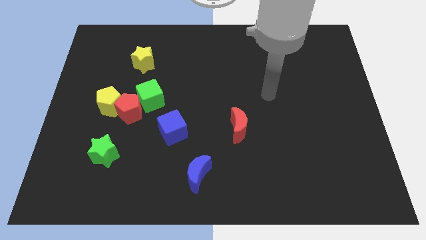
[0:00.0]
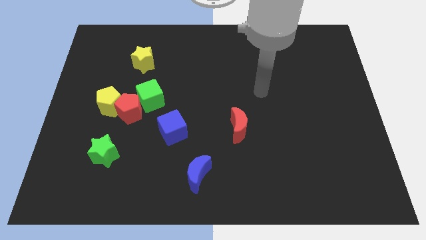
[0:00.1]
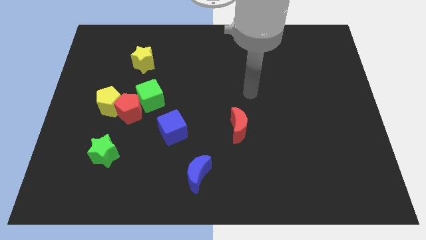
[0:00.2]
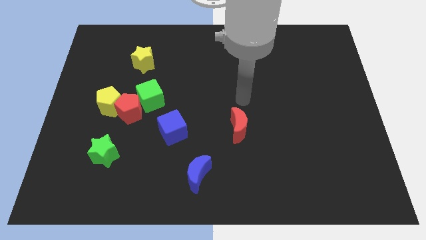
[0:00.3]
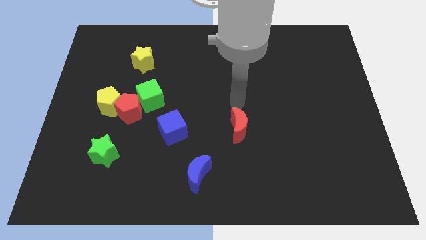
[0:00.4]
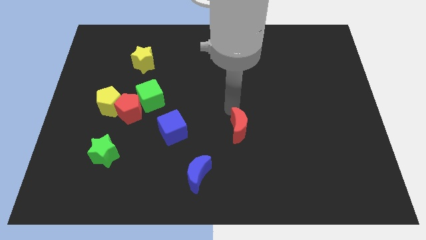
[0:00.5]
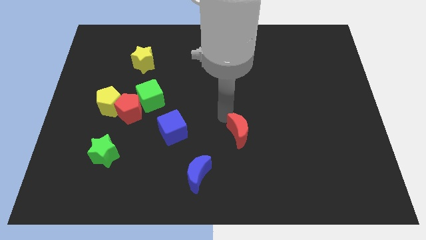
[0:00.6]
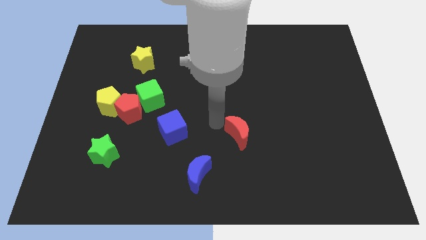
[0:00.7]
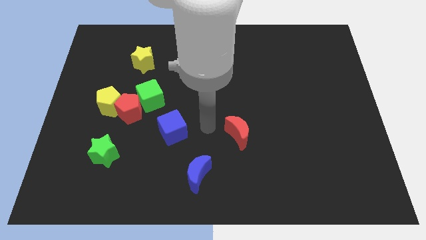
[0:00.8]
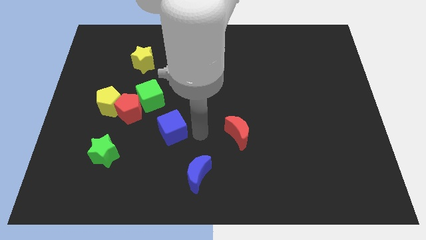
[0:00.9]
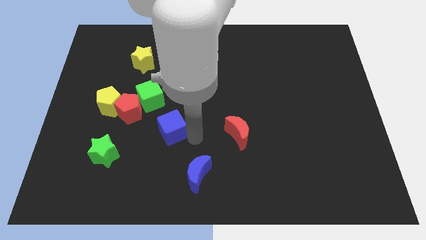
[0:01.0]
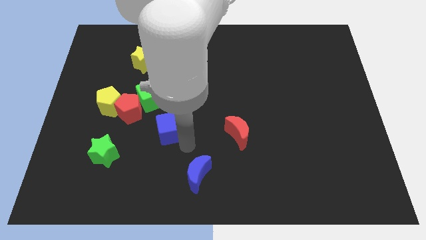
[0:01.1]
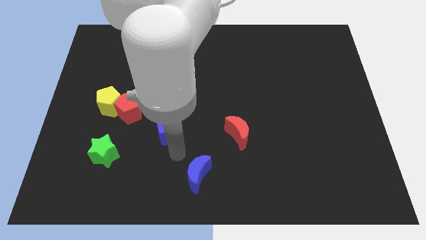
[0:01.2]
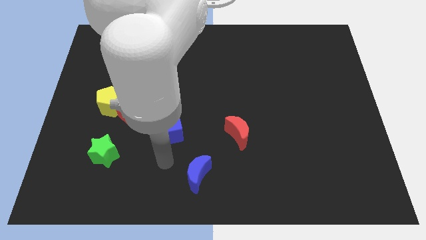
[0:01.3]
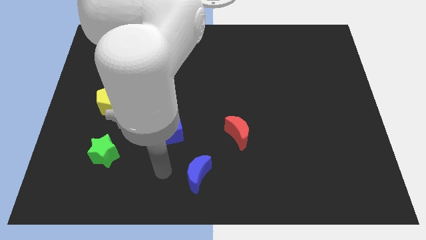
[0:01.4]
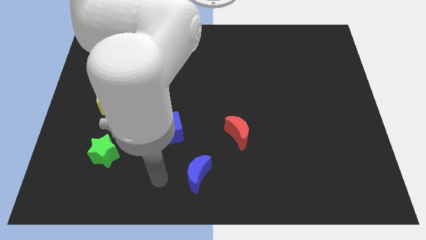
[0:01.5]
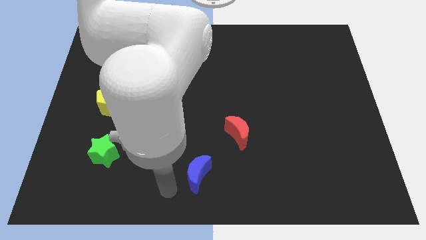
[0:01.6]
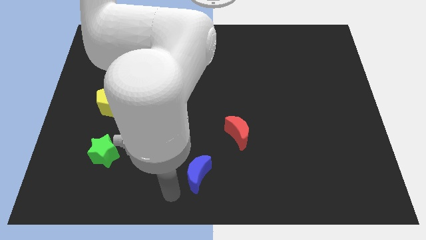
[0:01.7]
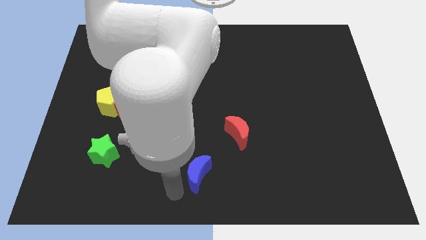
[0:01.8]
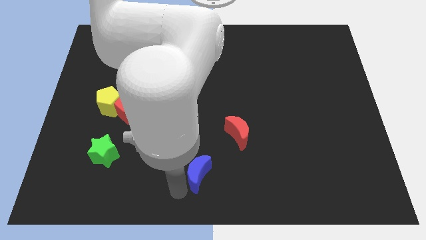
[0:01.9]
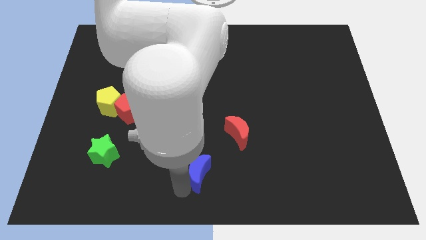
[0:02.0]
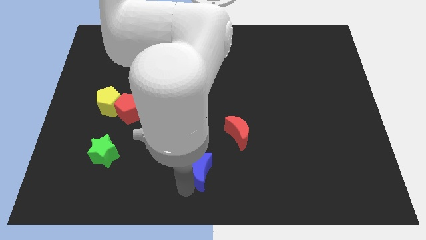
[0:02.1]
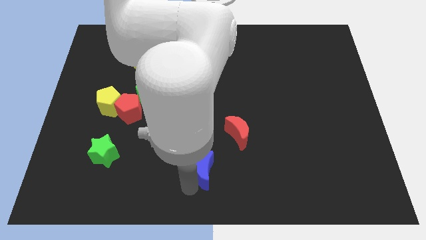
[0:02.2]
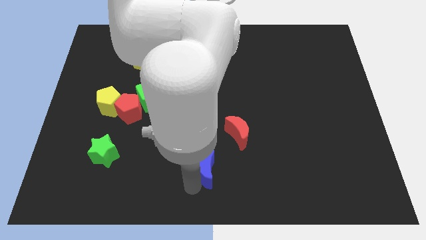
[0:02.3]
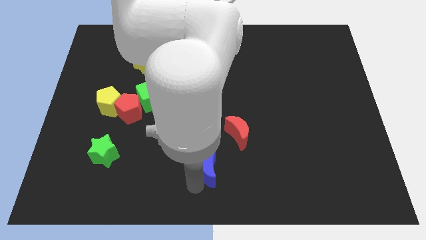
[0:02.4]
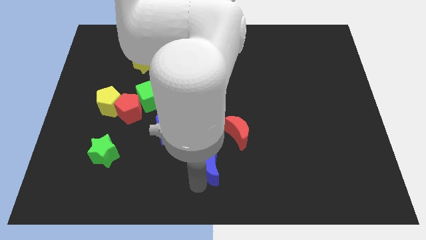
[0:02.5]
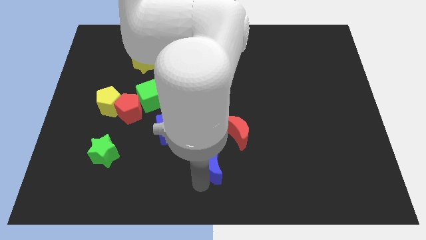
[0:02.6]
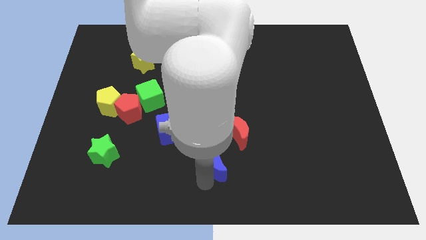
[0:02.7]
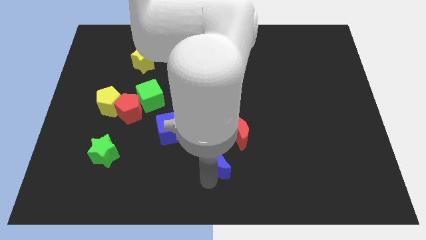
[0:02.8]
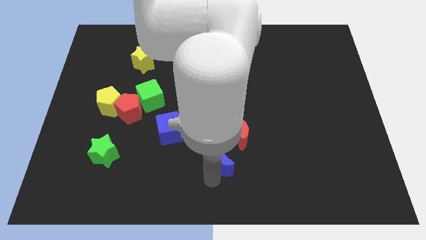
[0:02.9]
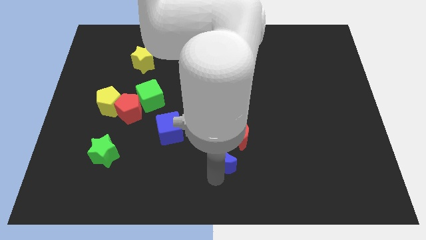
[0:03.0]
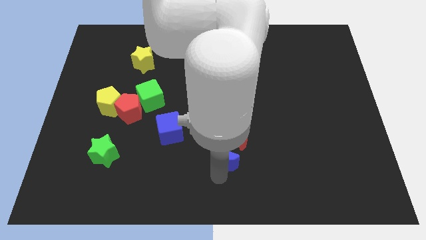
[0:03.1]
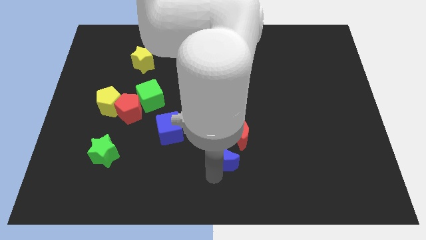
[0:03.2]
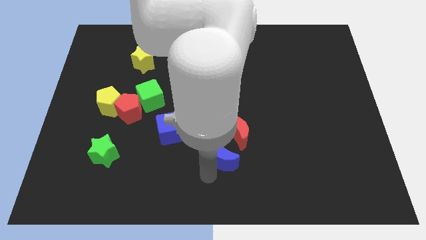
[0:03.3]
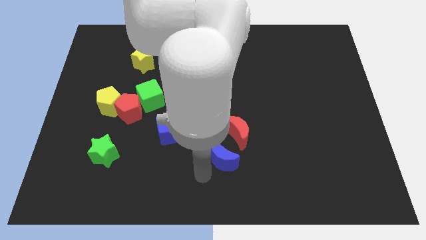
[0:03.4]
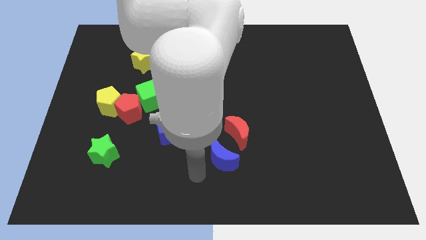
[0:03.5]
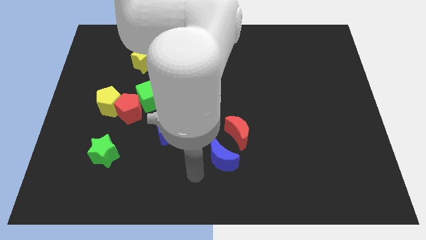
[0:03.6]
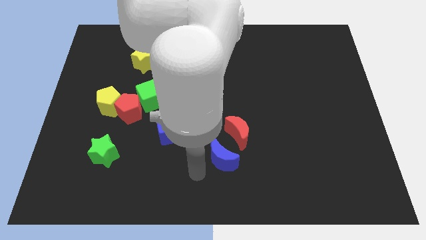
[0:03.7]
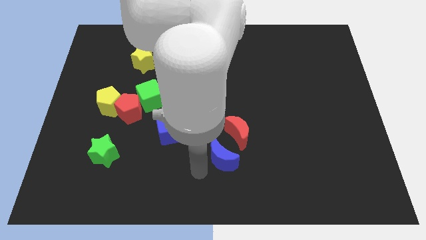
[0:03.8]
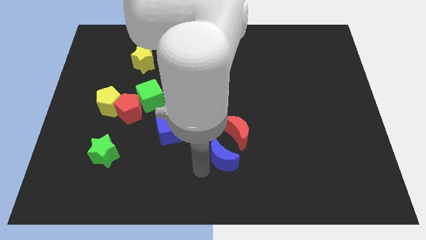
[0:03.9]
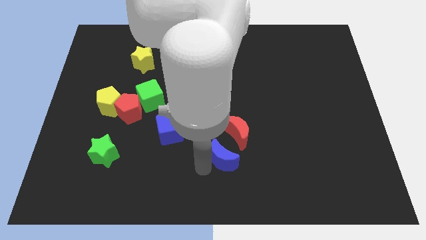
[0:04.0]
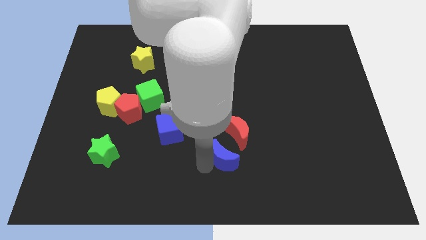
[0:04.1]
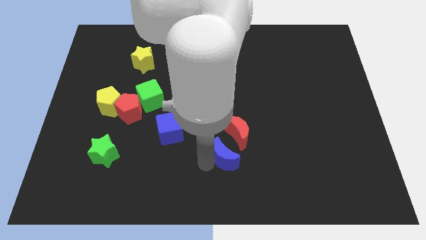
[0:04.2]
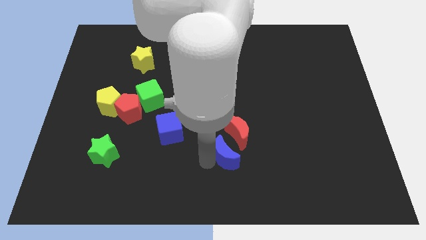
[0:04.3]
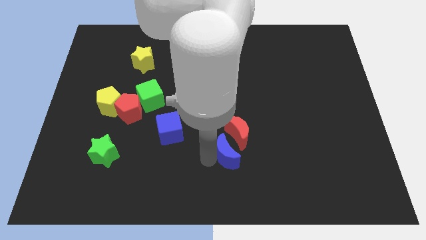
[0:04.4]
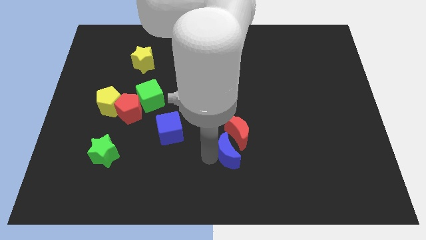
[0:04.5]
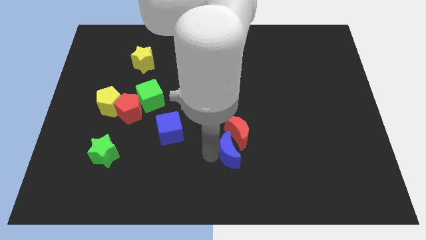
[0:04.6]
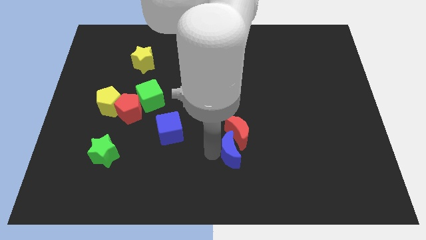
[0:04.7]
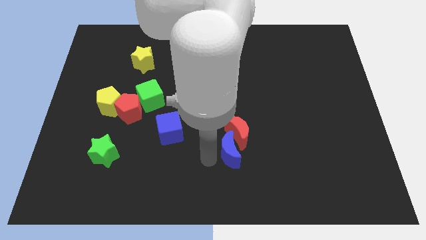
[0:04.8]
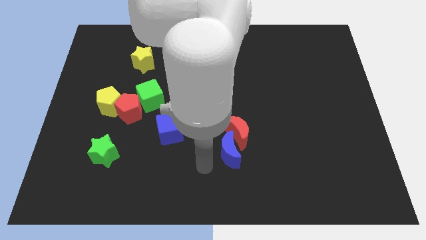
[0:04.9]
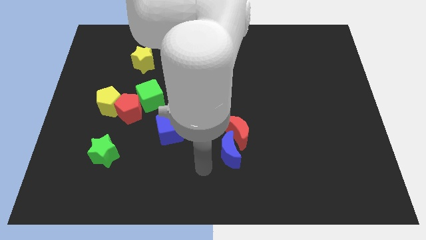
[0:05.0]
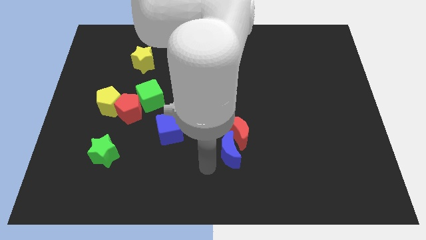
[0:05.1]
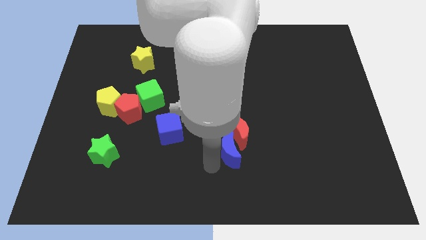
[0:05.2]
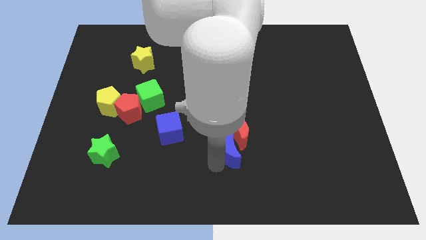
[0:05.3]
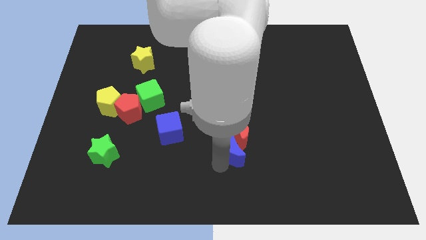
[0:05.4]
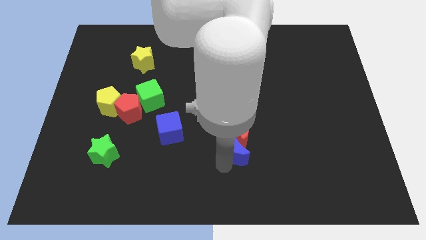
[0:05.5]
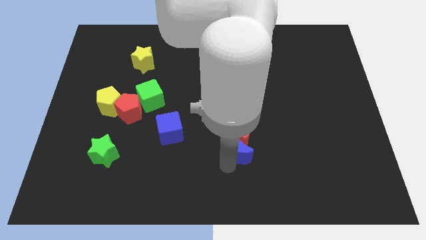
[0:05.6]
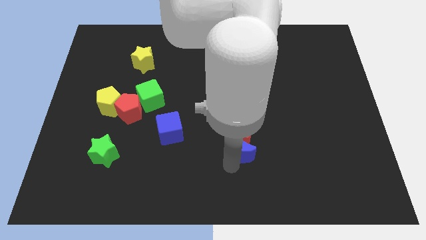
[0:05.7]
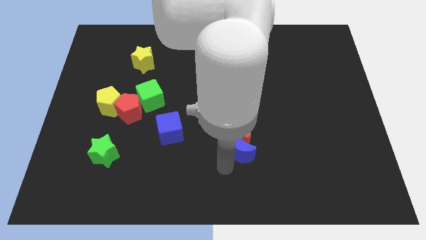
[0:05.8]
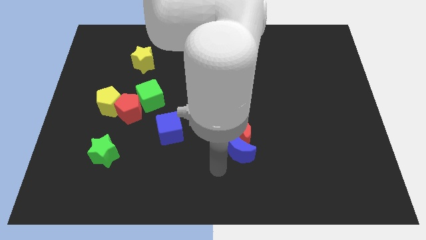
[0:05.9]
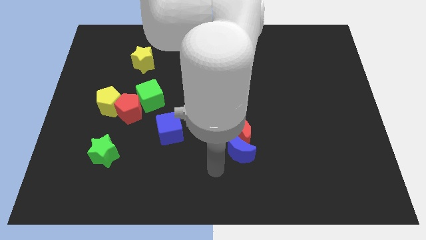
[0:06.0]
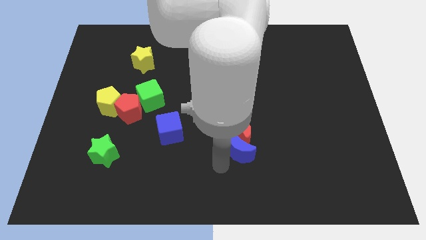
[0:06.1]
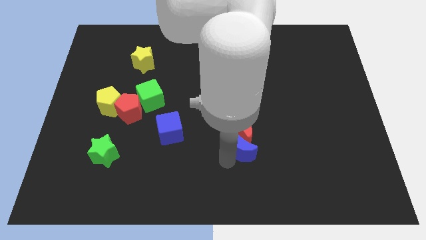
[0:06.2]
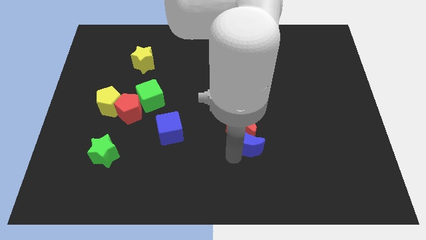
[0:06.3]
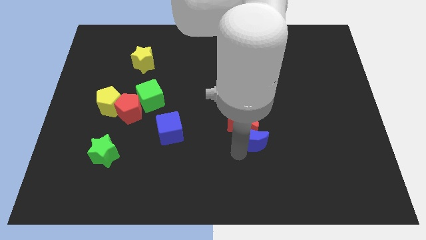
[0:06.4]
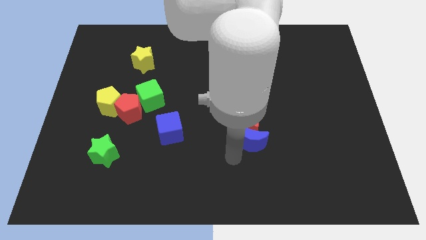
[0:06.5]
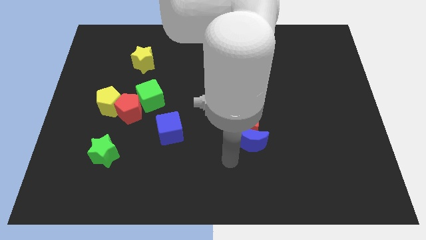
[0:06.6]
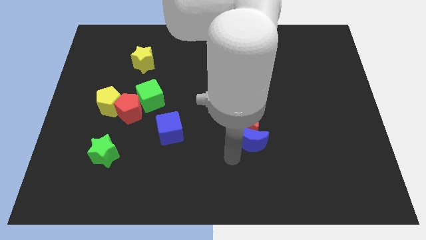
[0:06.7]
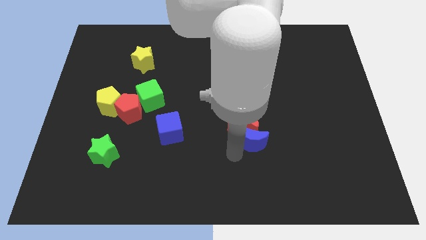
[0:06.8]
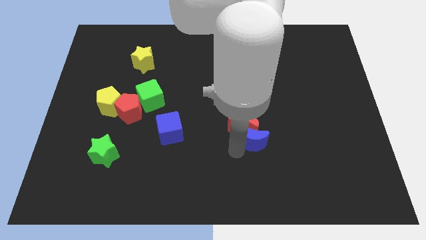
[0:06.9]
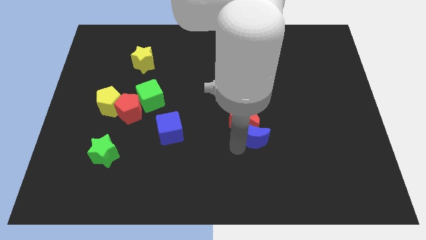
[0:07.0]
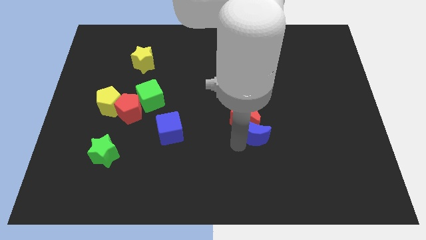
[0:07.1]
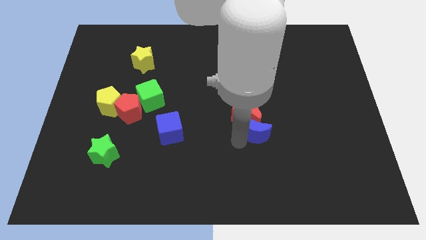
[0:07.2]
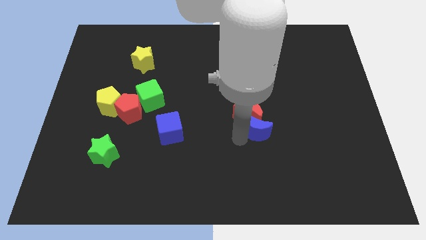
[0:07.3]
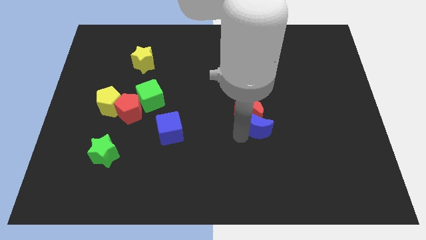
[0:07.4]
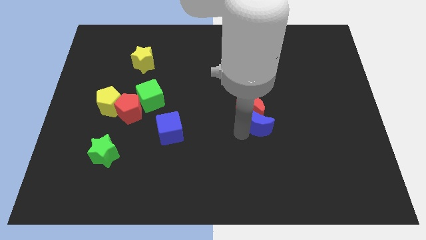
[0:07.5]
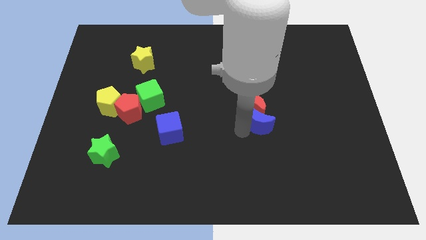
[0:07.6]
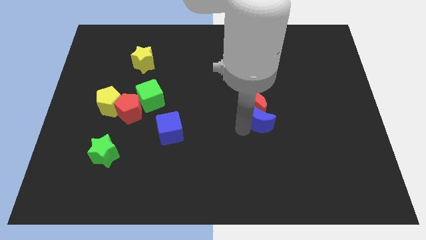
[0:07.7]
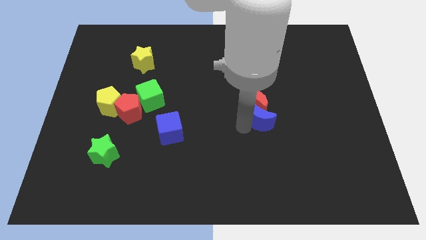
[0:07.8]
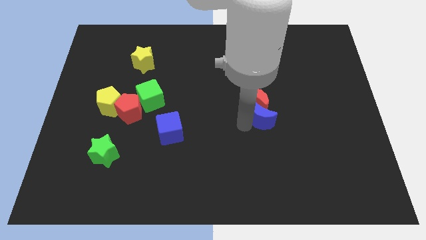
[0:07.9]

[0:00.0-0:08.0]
move the blue moon diagonally up and right

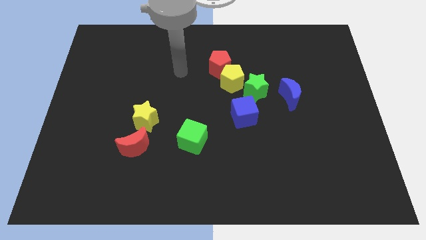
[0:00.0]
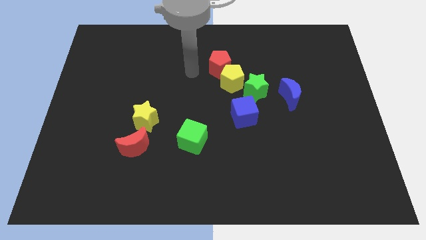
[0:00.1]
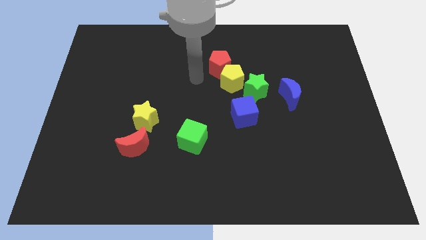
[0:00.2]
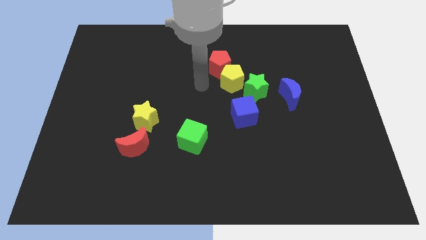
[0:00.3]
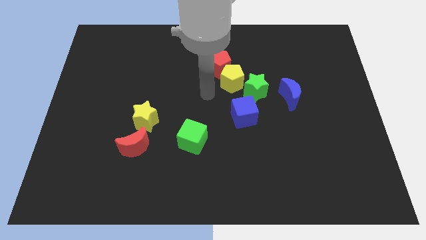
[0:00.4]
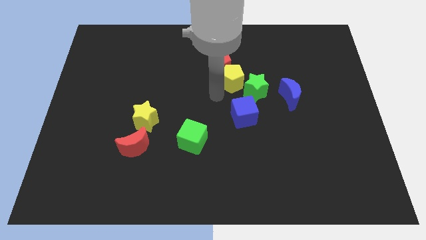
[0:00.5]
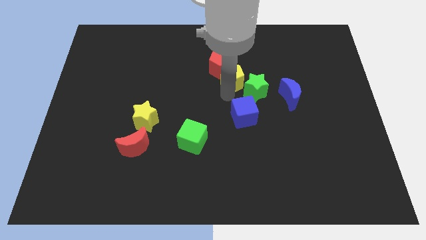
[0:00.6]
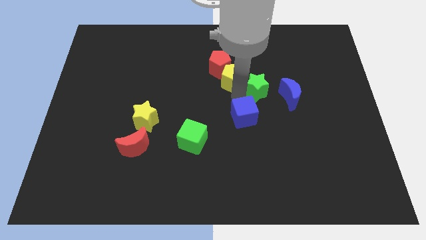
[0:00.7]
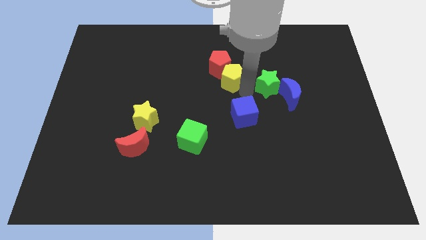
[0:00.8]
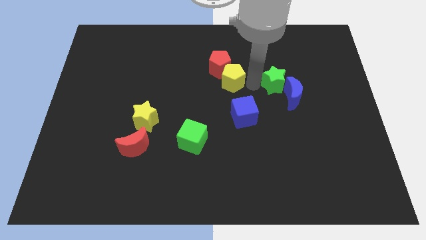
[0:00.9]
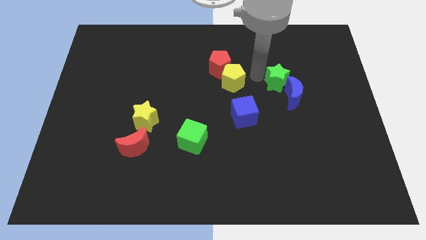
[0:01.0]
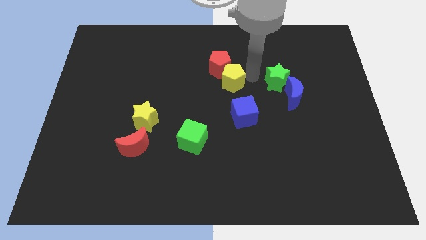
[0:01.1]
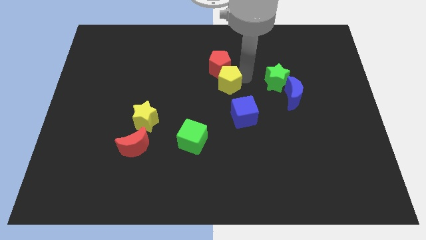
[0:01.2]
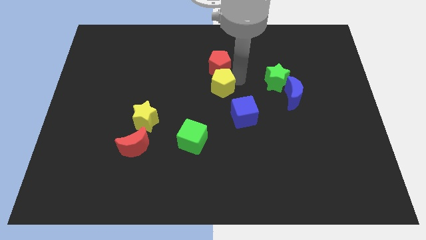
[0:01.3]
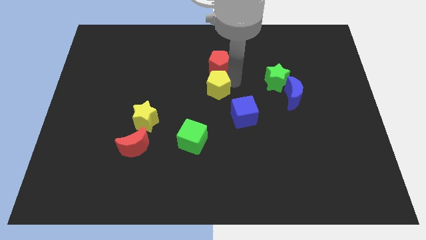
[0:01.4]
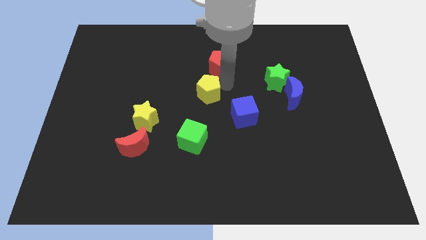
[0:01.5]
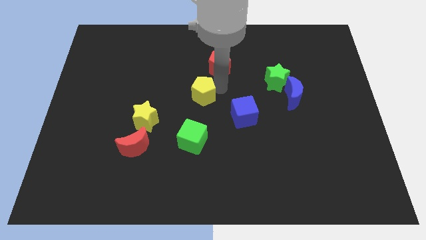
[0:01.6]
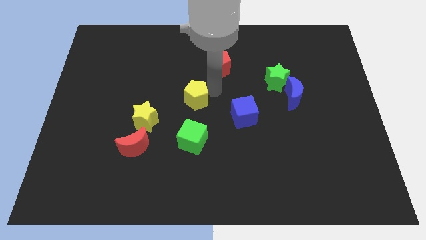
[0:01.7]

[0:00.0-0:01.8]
slide the yellow pentagon left a little bit
